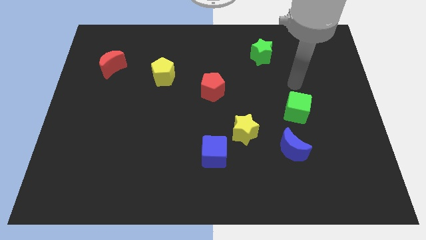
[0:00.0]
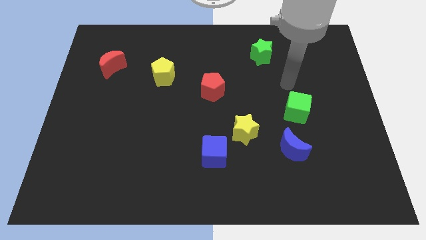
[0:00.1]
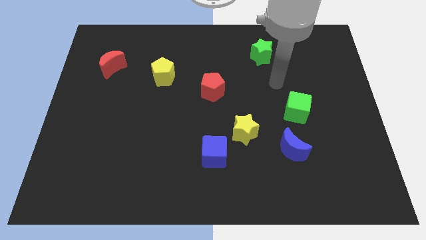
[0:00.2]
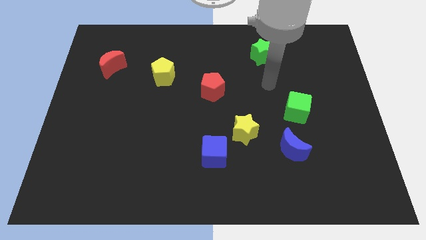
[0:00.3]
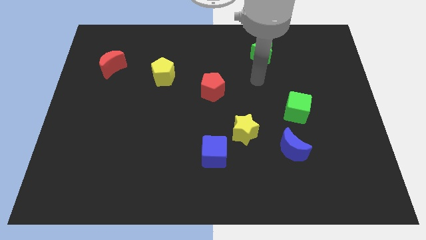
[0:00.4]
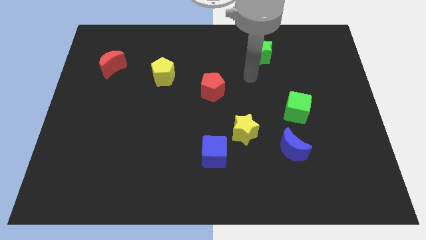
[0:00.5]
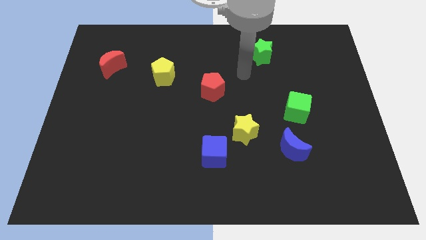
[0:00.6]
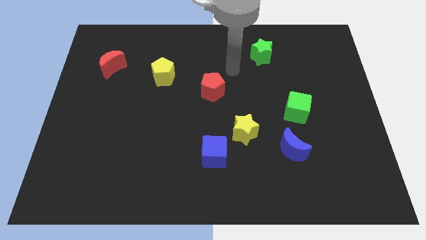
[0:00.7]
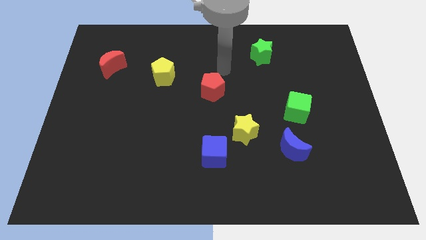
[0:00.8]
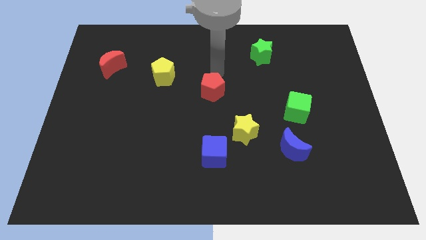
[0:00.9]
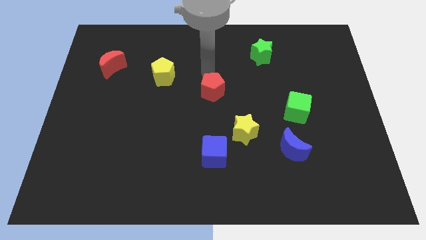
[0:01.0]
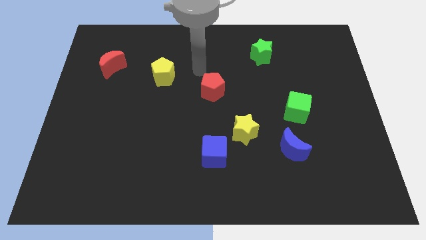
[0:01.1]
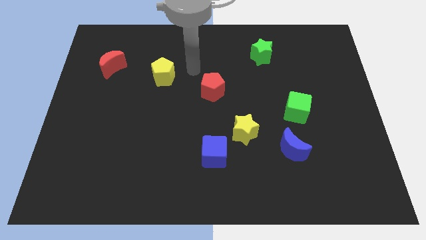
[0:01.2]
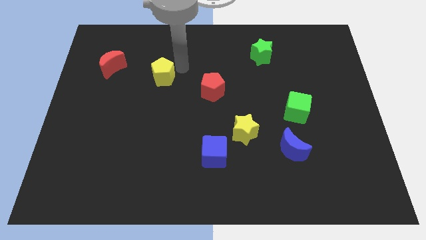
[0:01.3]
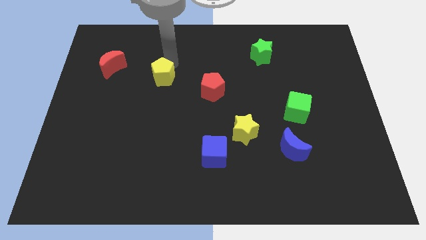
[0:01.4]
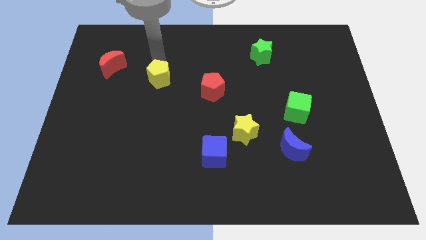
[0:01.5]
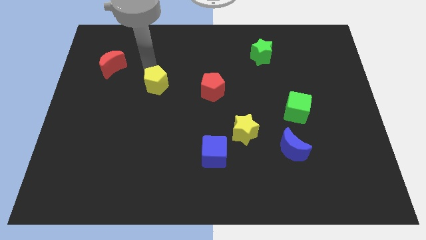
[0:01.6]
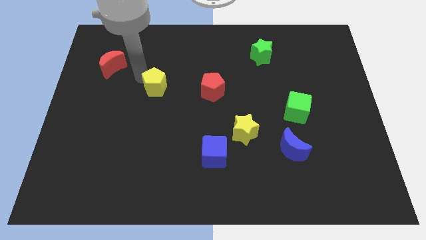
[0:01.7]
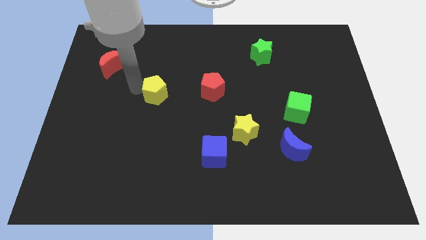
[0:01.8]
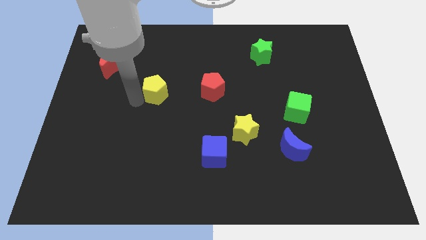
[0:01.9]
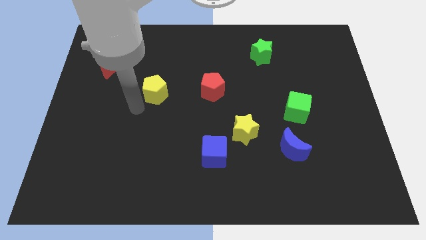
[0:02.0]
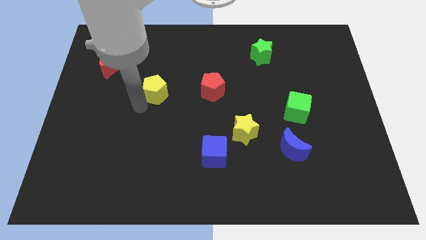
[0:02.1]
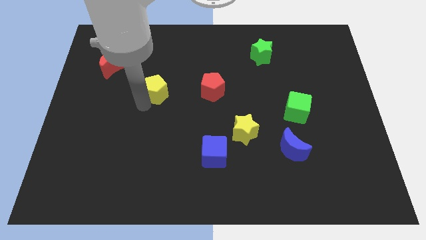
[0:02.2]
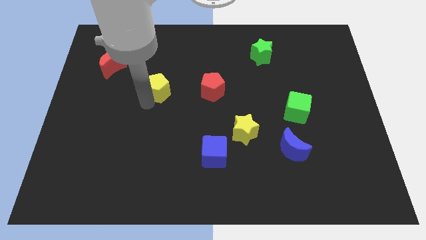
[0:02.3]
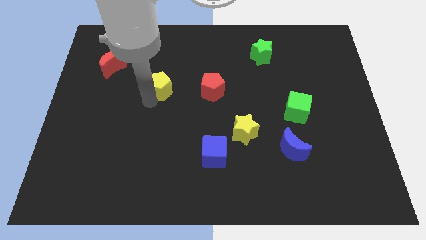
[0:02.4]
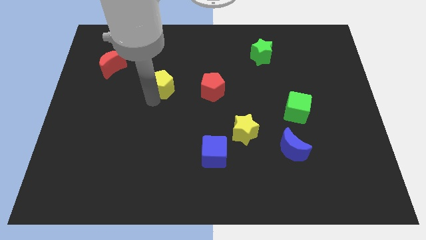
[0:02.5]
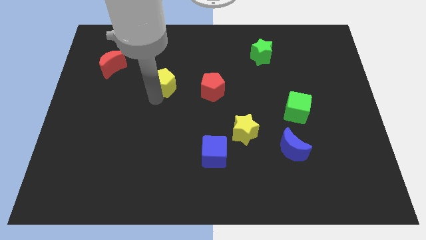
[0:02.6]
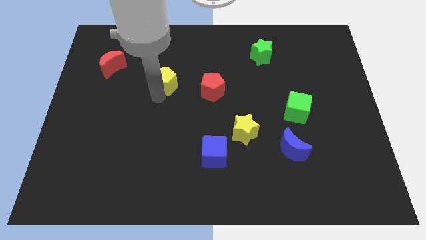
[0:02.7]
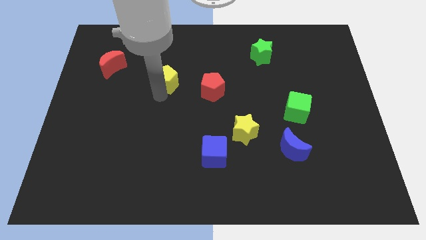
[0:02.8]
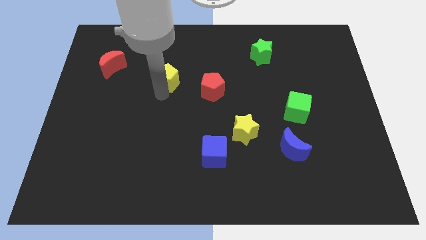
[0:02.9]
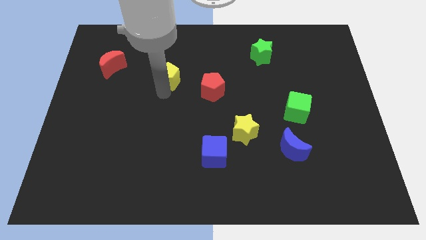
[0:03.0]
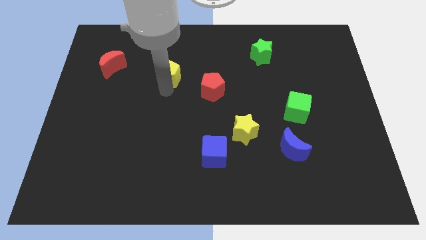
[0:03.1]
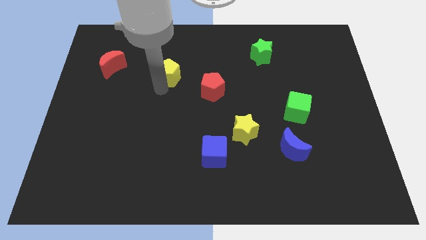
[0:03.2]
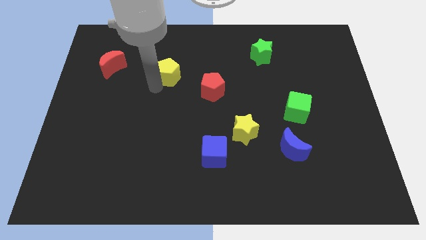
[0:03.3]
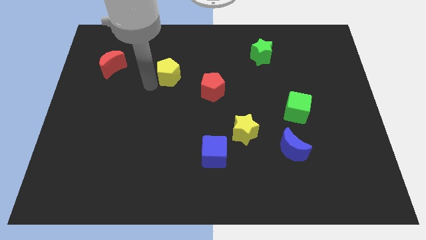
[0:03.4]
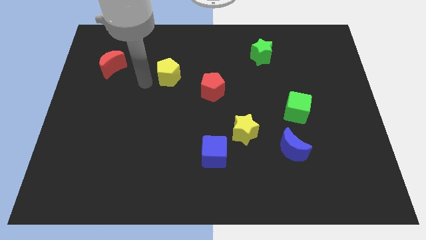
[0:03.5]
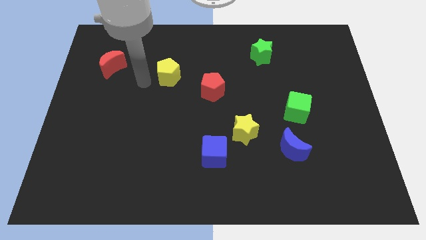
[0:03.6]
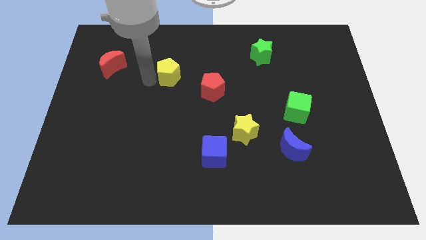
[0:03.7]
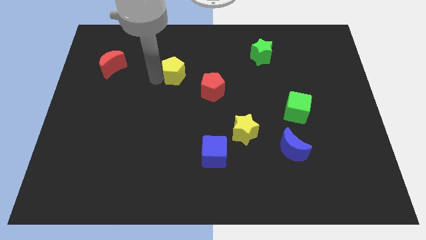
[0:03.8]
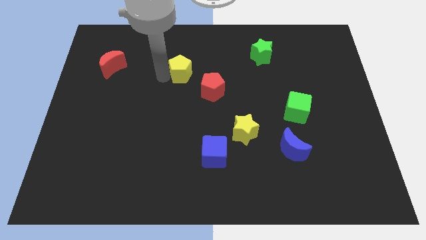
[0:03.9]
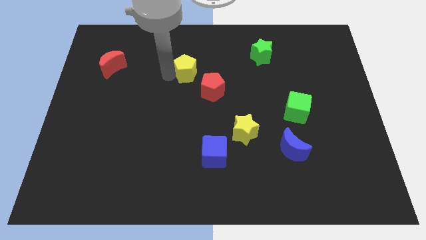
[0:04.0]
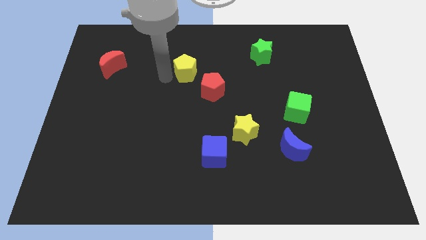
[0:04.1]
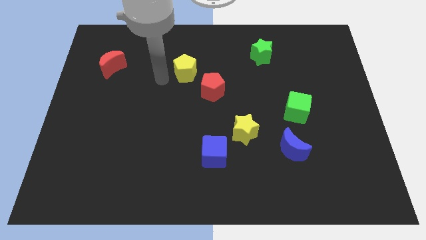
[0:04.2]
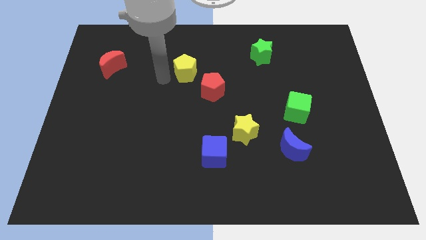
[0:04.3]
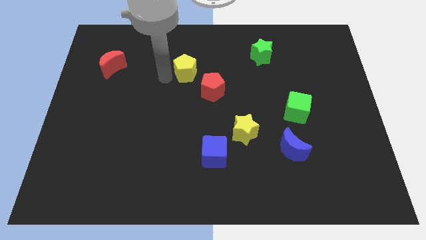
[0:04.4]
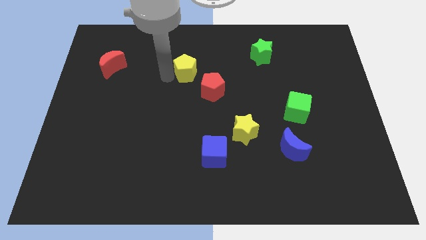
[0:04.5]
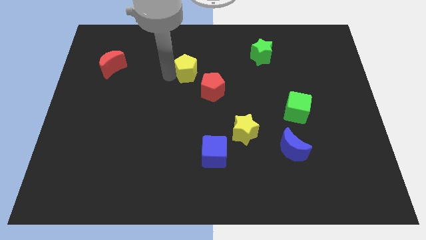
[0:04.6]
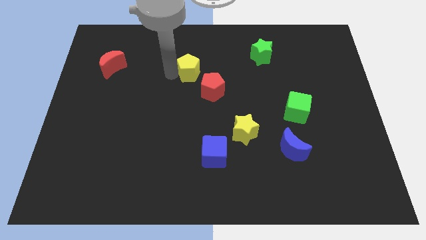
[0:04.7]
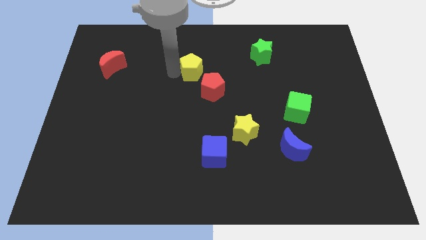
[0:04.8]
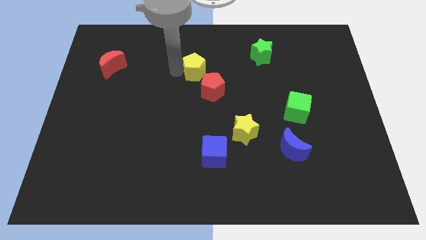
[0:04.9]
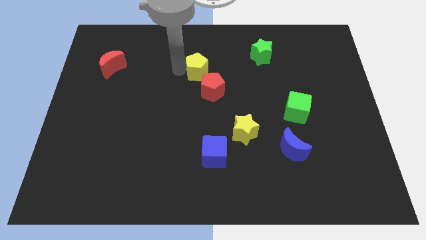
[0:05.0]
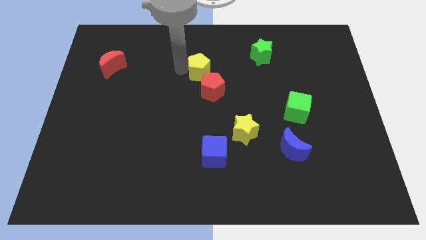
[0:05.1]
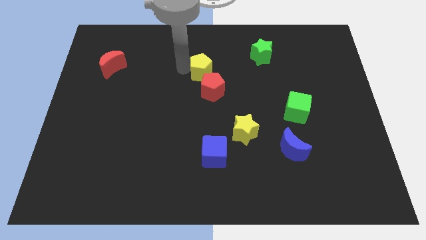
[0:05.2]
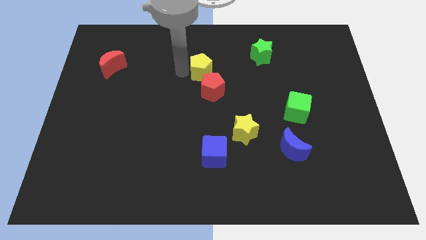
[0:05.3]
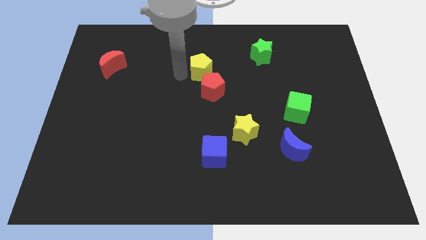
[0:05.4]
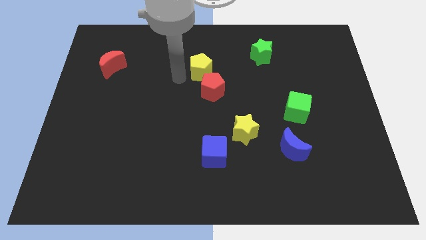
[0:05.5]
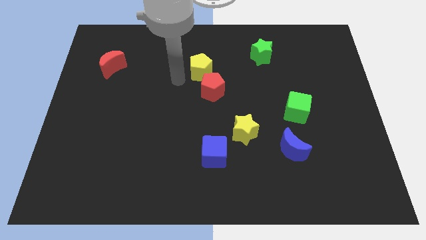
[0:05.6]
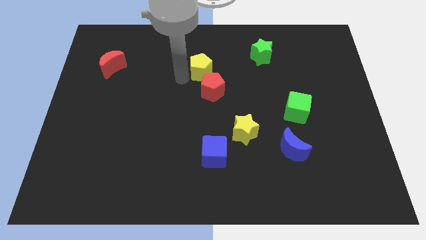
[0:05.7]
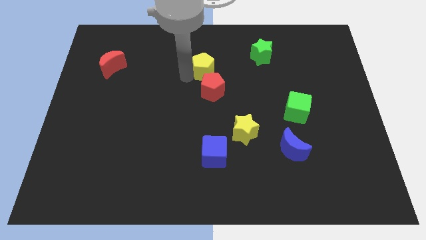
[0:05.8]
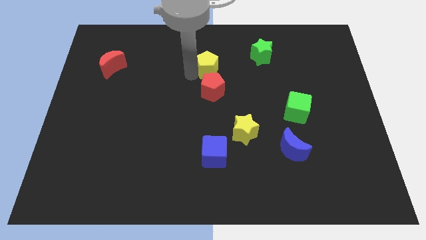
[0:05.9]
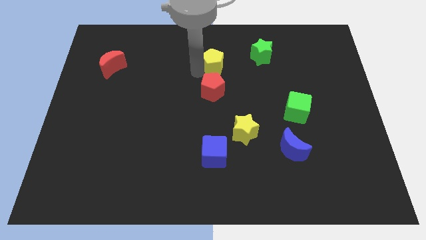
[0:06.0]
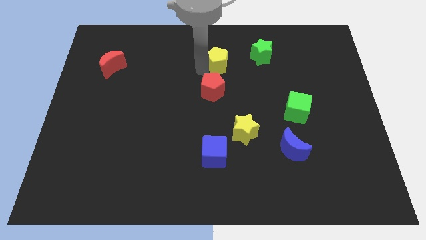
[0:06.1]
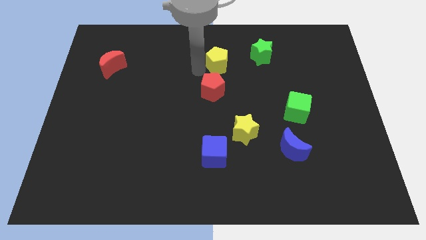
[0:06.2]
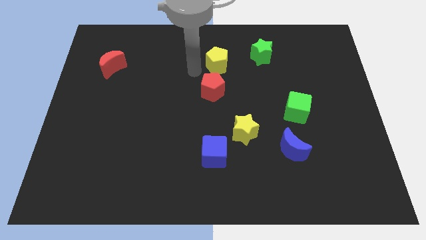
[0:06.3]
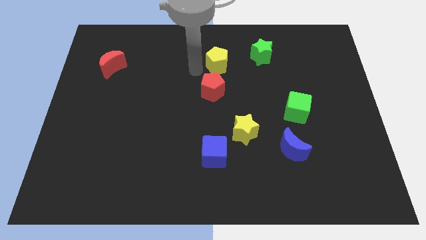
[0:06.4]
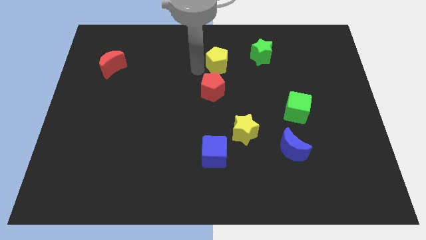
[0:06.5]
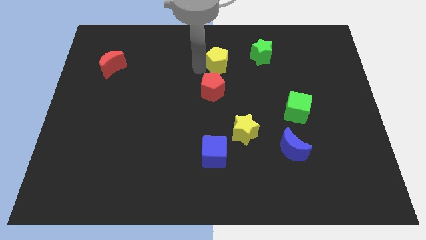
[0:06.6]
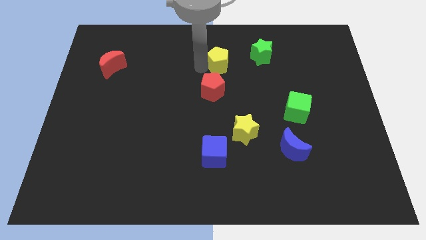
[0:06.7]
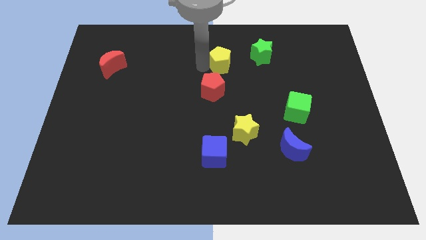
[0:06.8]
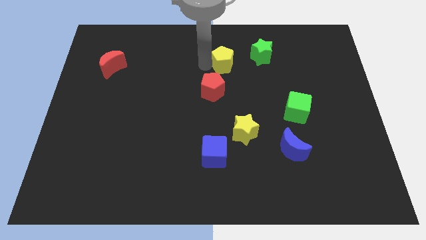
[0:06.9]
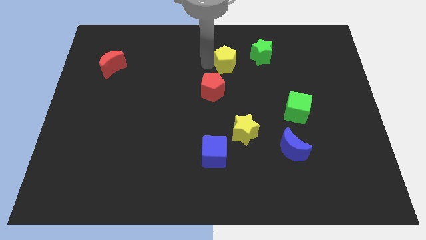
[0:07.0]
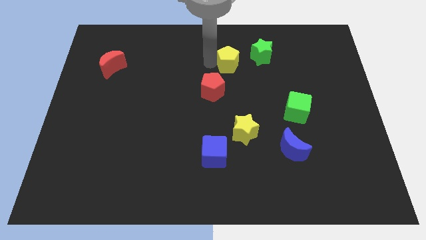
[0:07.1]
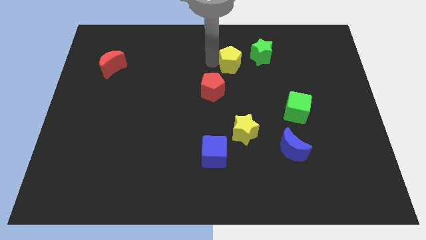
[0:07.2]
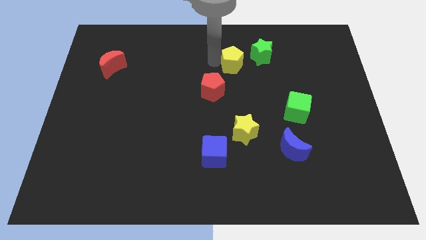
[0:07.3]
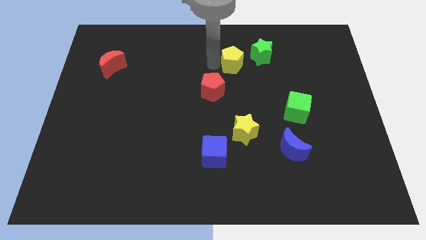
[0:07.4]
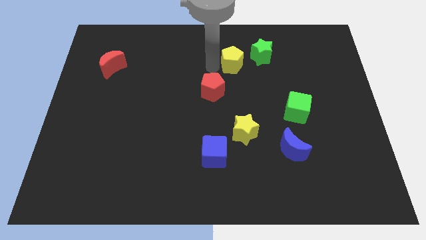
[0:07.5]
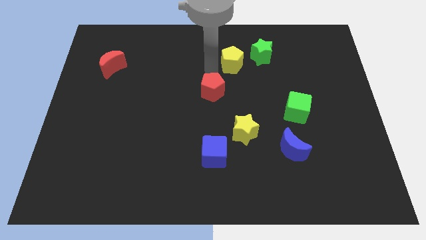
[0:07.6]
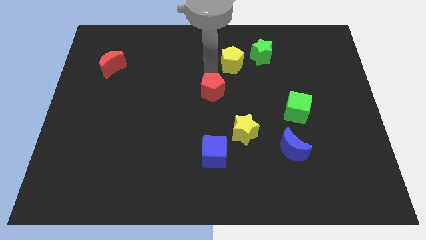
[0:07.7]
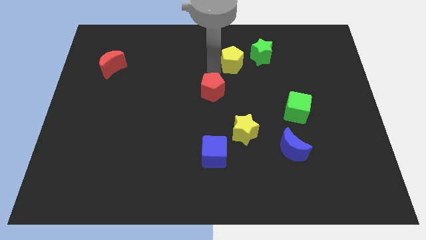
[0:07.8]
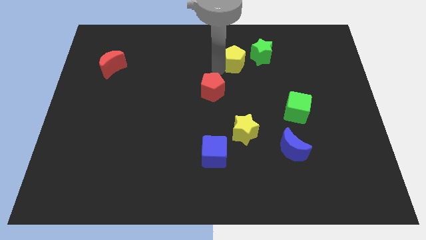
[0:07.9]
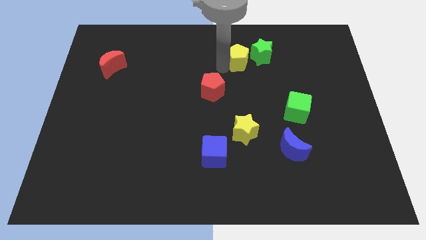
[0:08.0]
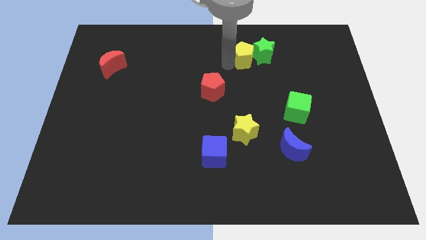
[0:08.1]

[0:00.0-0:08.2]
put the yellow pentagon to the green star
